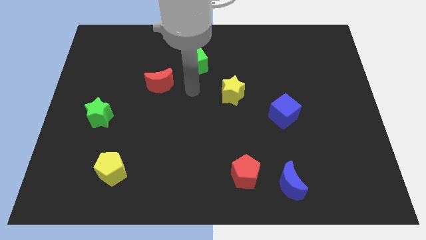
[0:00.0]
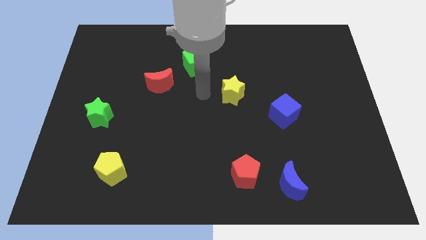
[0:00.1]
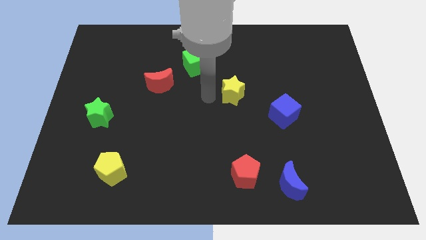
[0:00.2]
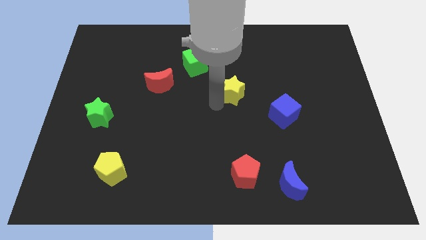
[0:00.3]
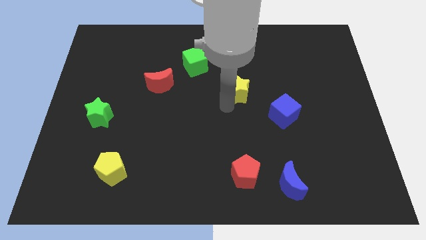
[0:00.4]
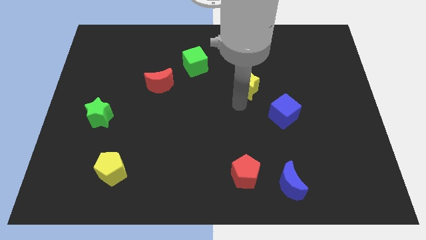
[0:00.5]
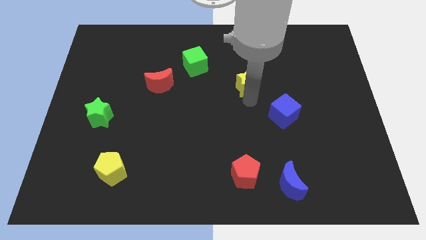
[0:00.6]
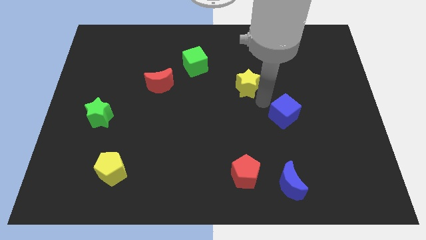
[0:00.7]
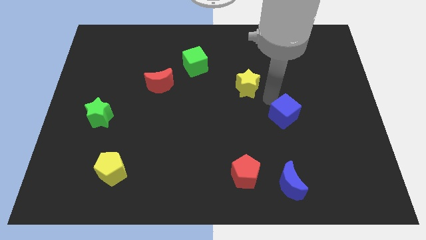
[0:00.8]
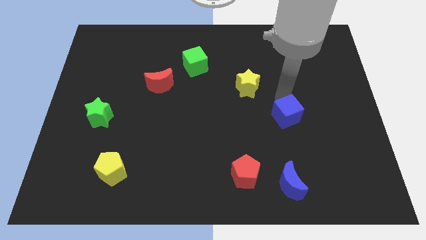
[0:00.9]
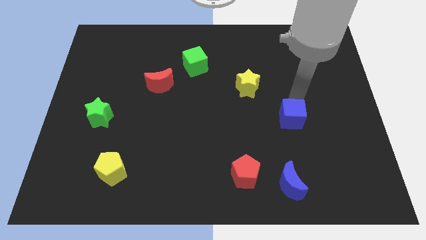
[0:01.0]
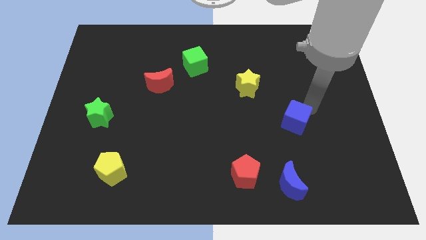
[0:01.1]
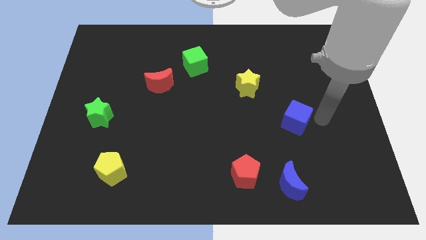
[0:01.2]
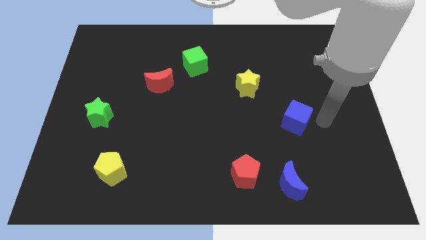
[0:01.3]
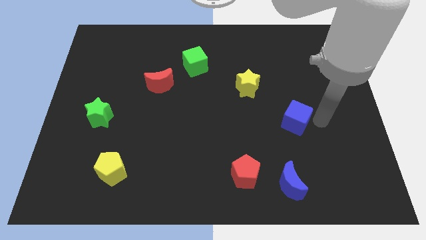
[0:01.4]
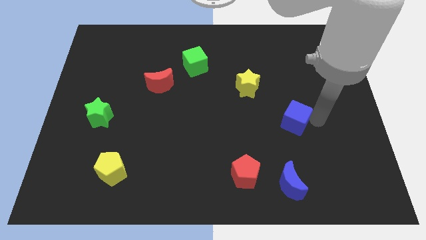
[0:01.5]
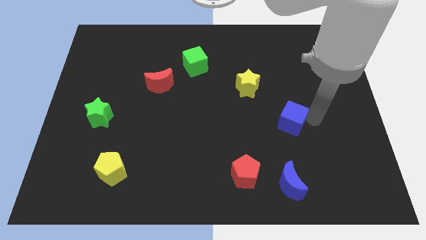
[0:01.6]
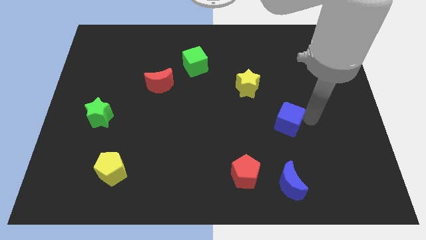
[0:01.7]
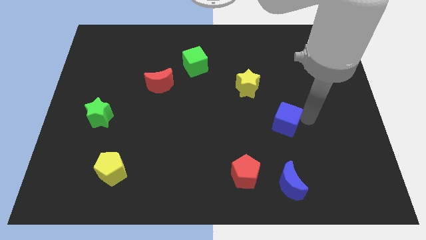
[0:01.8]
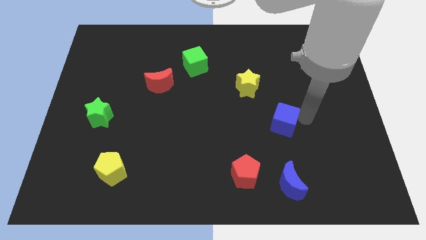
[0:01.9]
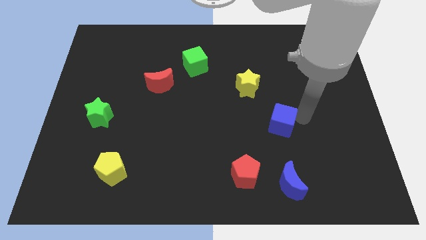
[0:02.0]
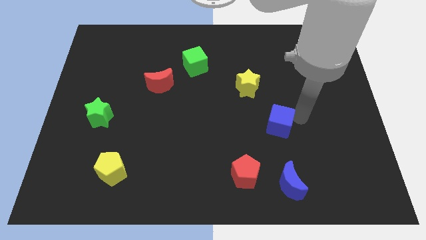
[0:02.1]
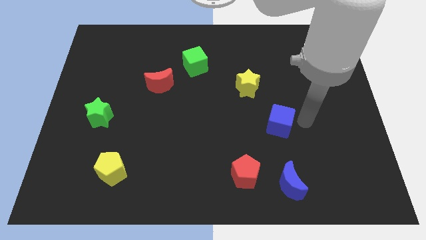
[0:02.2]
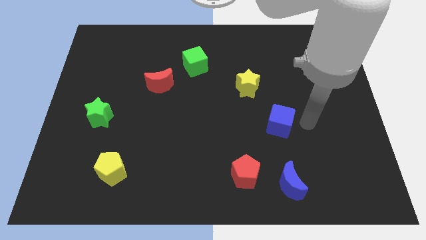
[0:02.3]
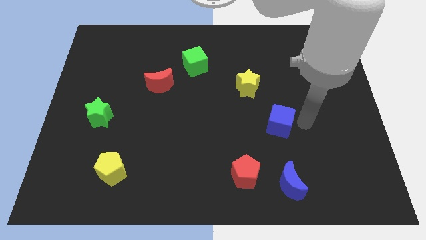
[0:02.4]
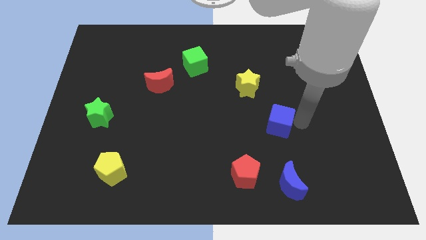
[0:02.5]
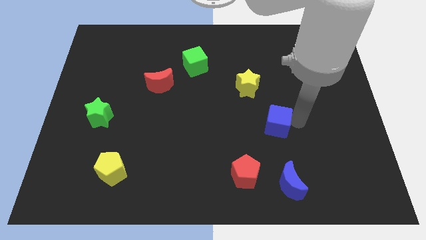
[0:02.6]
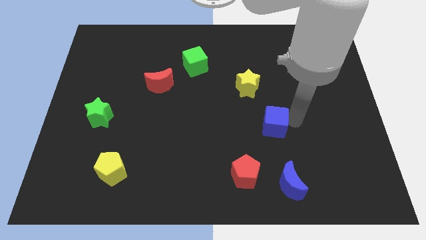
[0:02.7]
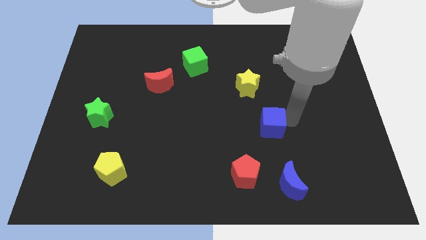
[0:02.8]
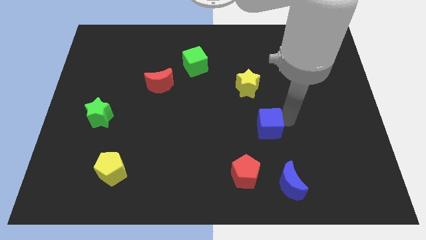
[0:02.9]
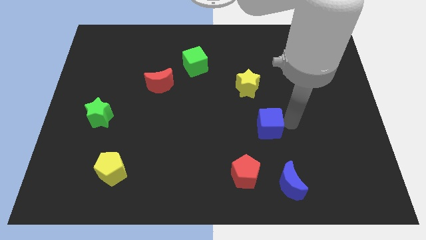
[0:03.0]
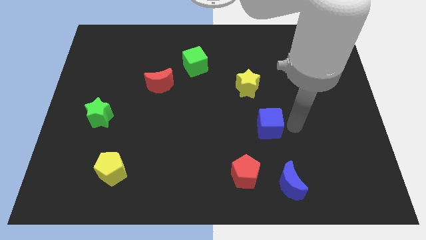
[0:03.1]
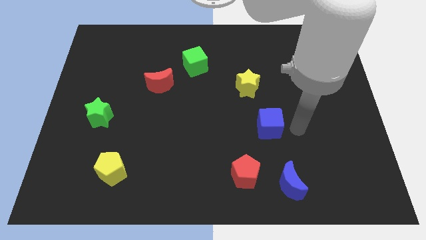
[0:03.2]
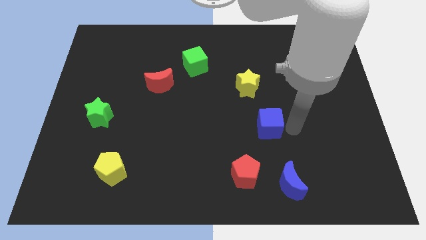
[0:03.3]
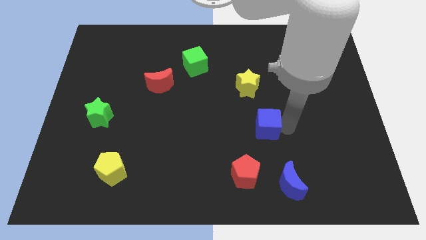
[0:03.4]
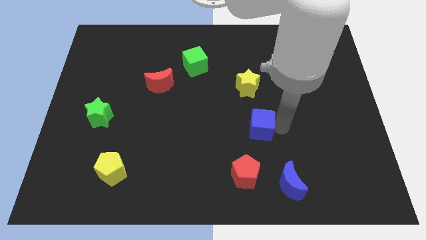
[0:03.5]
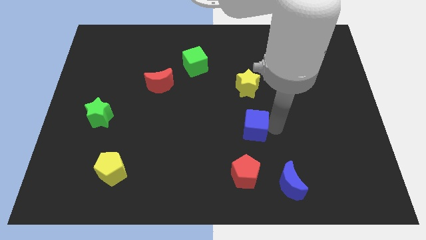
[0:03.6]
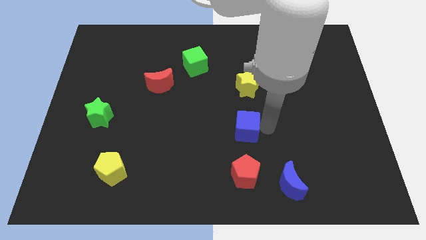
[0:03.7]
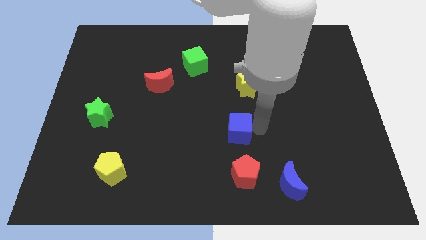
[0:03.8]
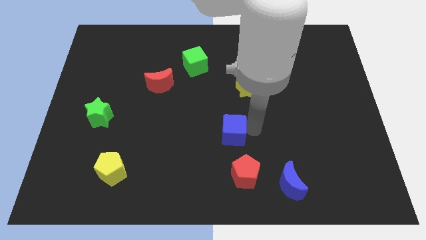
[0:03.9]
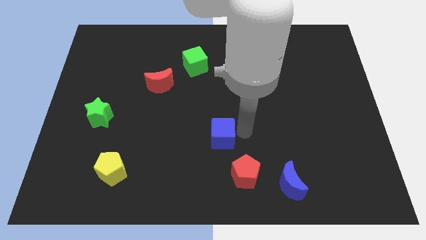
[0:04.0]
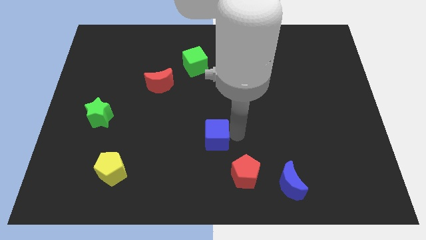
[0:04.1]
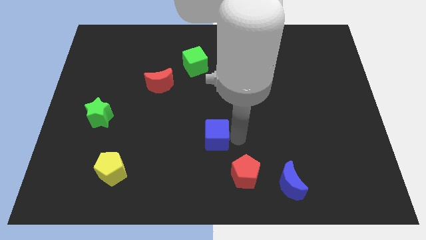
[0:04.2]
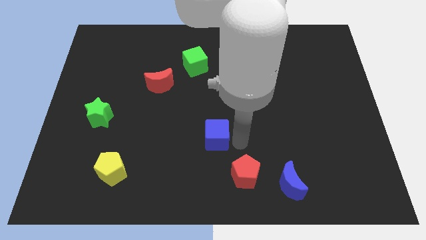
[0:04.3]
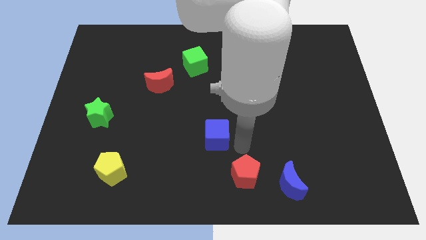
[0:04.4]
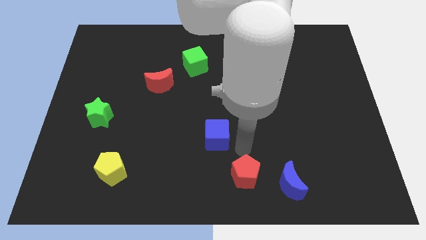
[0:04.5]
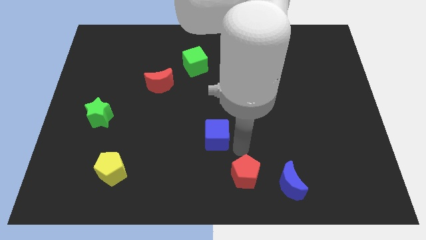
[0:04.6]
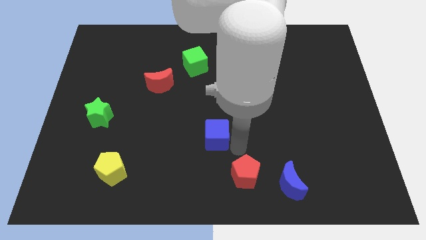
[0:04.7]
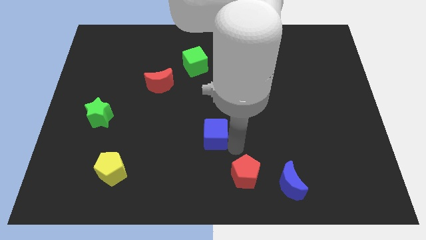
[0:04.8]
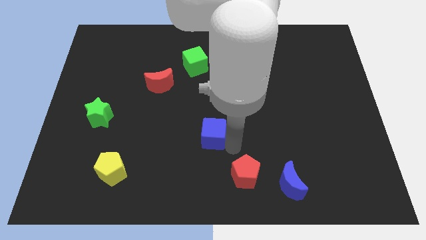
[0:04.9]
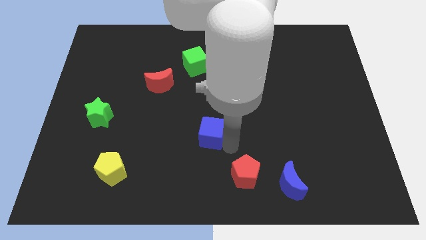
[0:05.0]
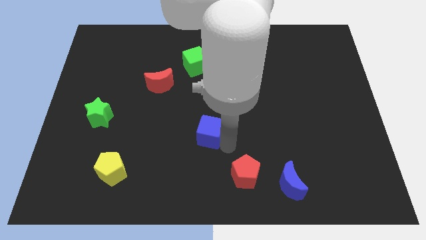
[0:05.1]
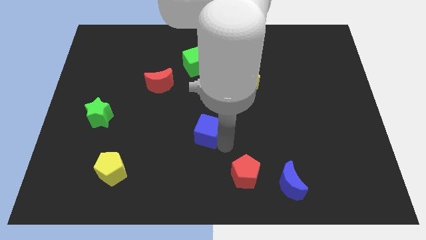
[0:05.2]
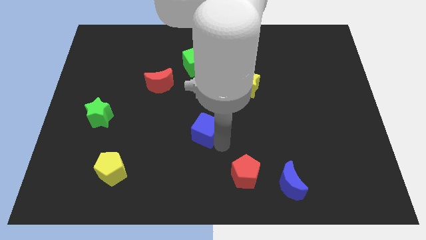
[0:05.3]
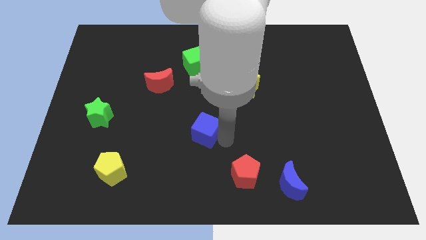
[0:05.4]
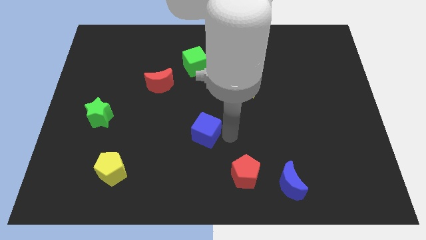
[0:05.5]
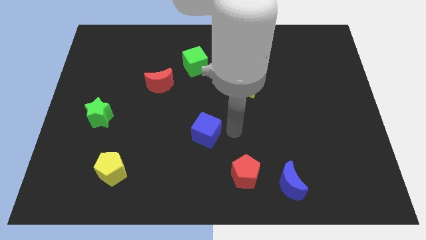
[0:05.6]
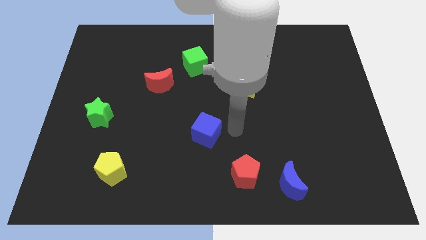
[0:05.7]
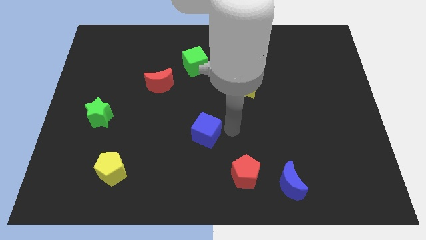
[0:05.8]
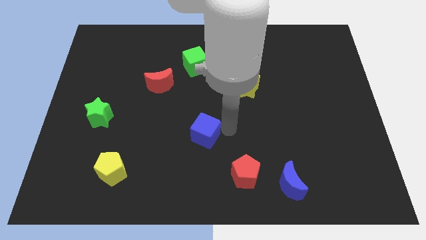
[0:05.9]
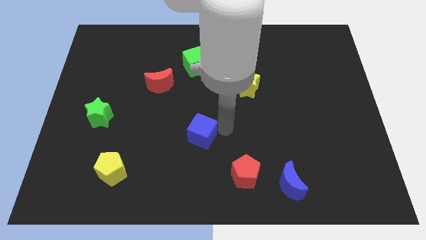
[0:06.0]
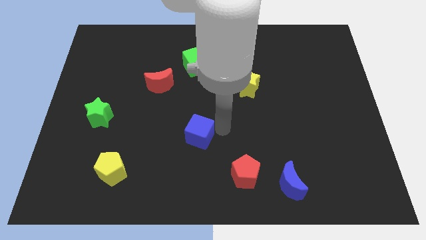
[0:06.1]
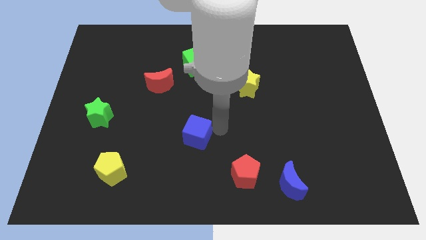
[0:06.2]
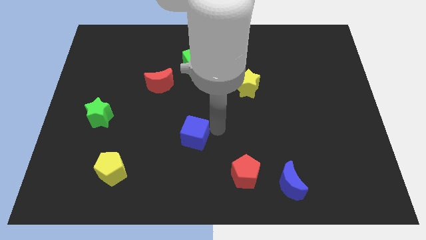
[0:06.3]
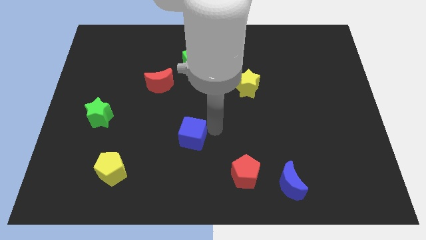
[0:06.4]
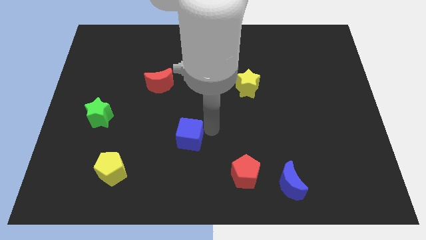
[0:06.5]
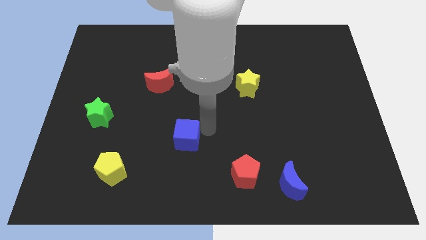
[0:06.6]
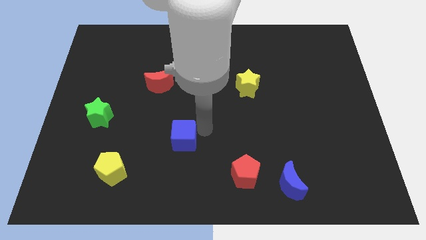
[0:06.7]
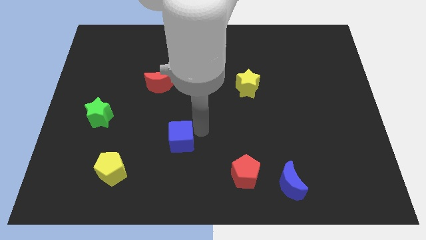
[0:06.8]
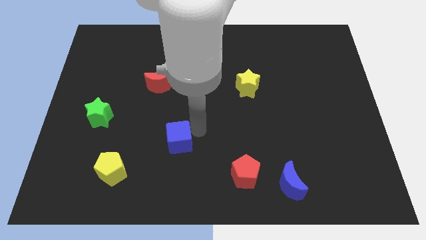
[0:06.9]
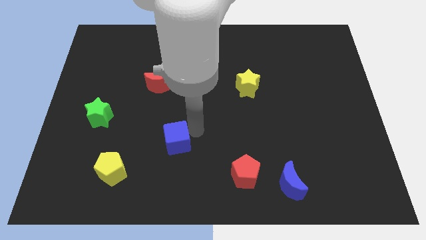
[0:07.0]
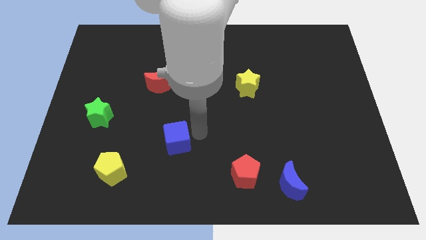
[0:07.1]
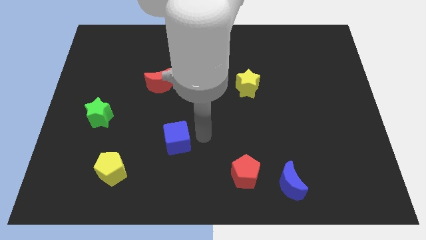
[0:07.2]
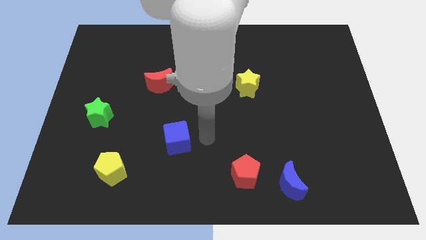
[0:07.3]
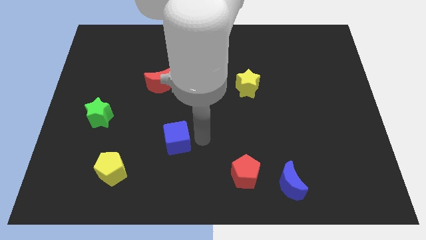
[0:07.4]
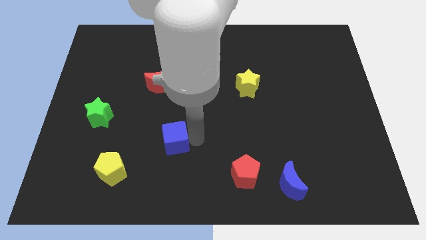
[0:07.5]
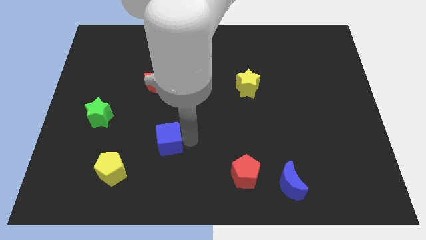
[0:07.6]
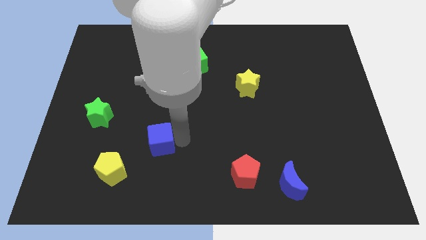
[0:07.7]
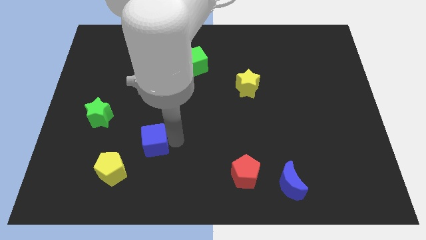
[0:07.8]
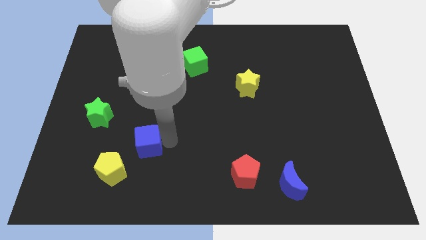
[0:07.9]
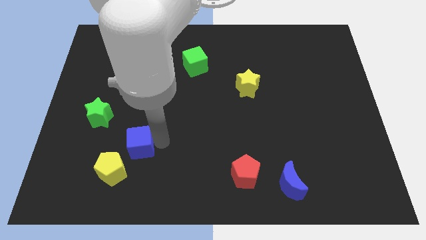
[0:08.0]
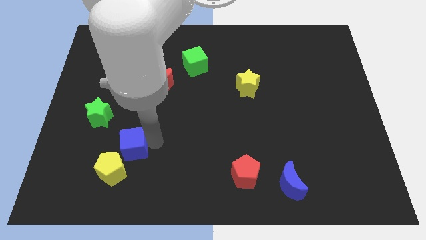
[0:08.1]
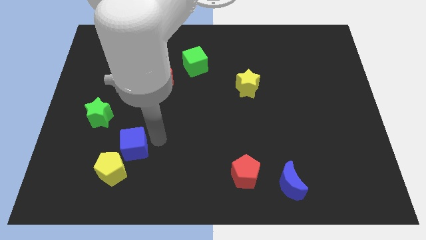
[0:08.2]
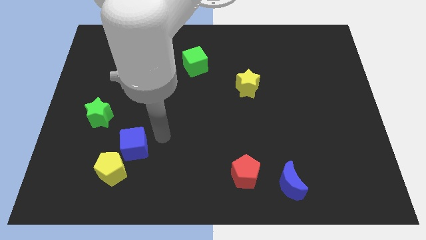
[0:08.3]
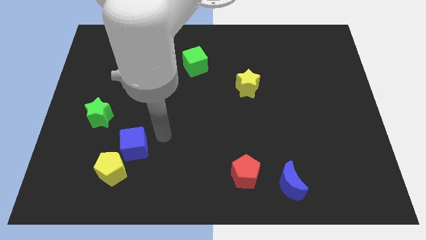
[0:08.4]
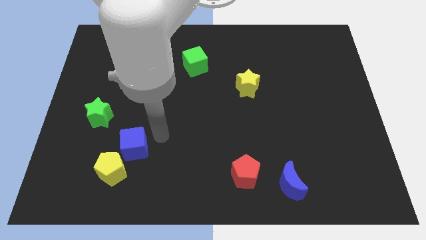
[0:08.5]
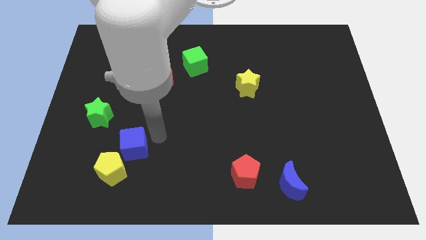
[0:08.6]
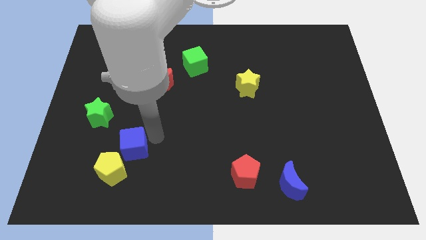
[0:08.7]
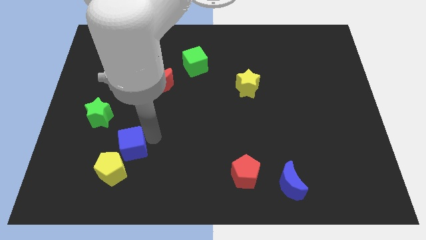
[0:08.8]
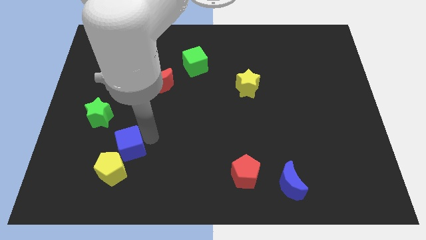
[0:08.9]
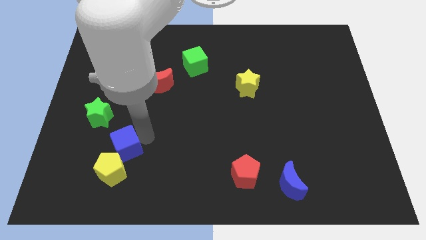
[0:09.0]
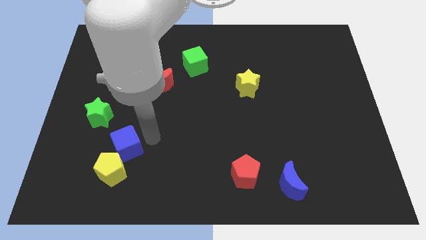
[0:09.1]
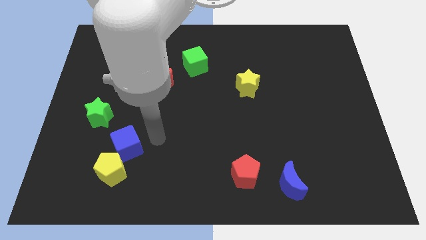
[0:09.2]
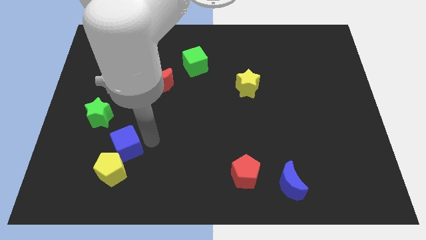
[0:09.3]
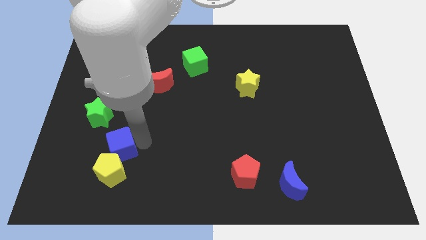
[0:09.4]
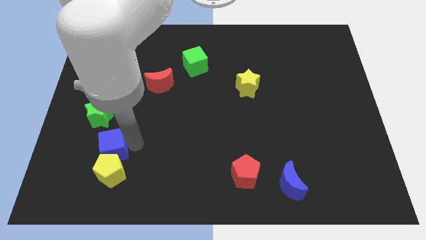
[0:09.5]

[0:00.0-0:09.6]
put the blue cube to the bottom side of the green star
